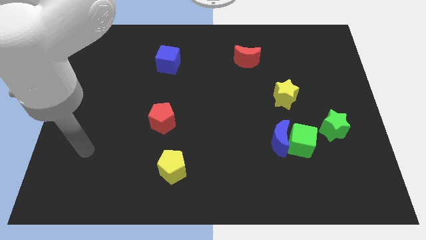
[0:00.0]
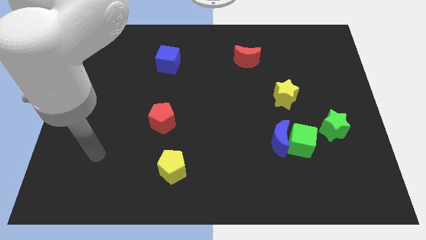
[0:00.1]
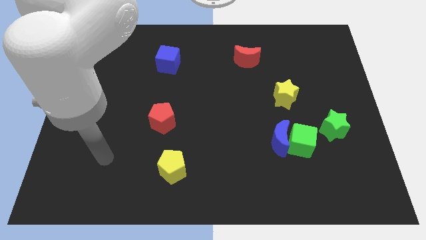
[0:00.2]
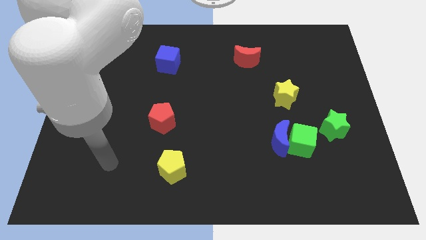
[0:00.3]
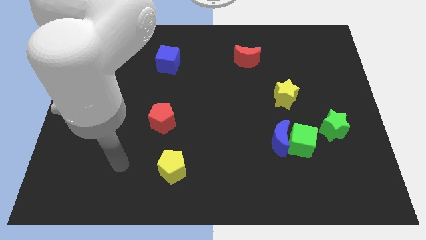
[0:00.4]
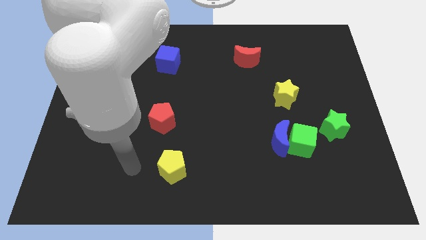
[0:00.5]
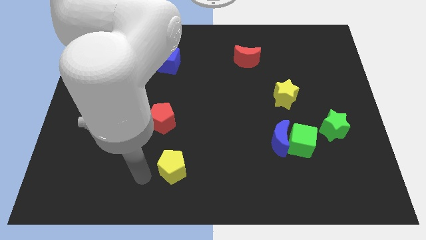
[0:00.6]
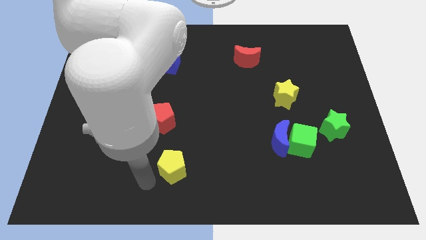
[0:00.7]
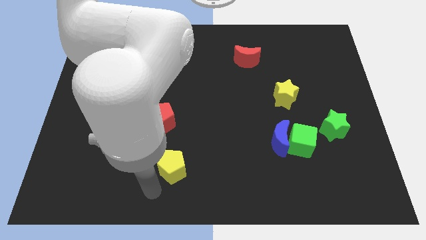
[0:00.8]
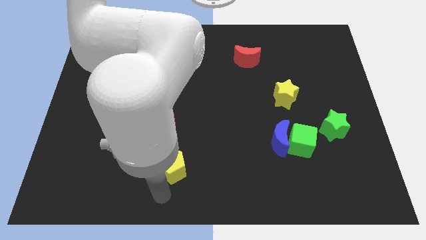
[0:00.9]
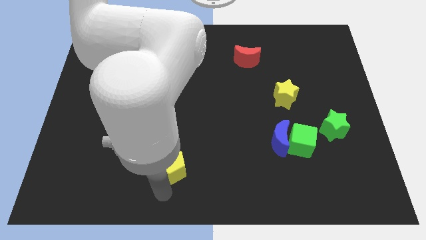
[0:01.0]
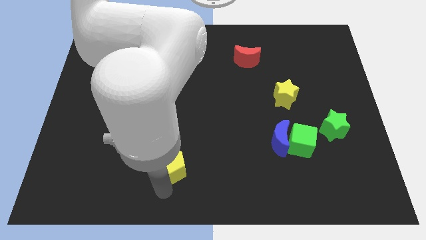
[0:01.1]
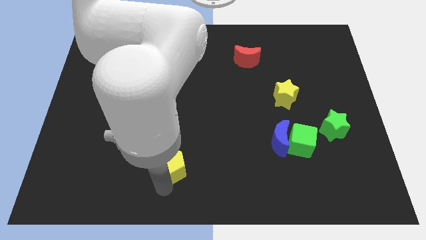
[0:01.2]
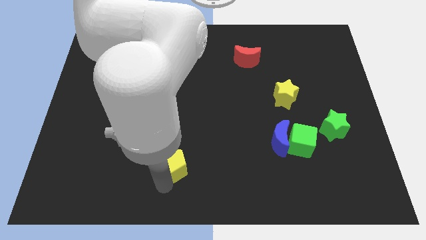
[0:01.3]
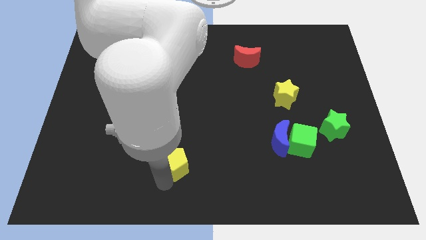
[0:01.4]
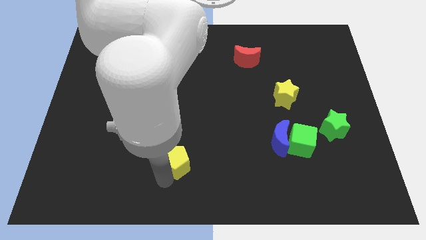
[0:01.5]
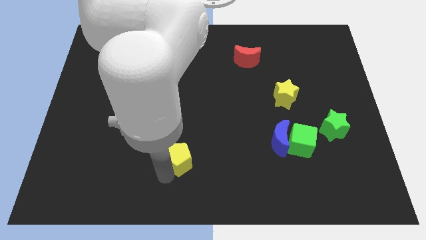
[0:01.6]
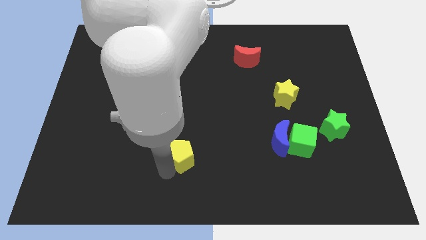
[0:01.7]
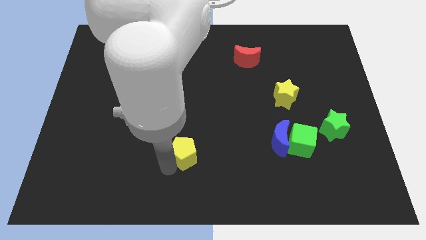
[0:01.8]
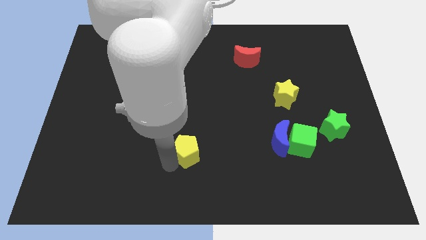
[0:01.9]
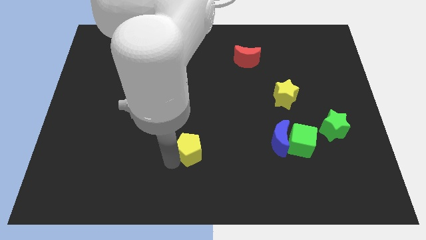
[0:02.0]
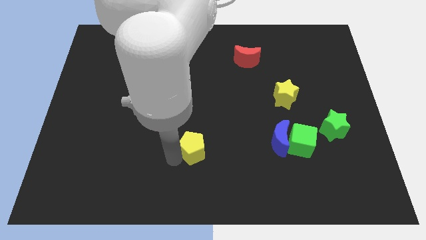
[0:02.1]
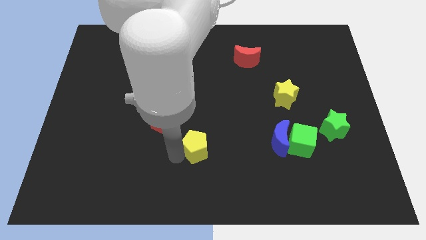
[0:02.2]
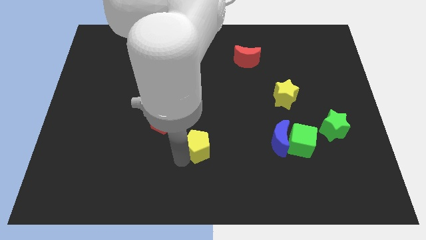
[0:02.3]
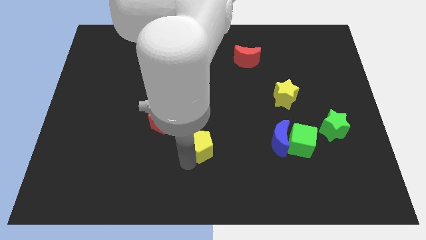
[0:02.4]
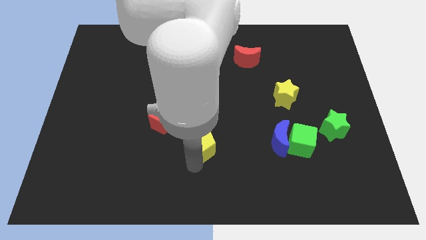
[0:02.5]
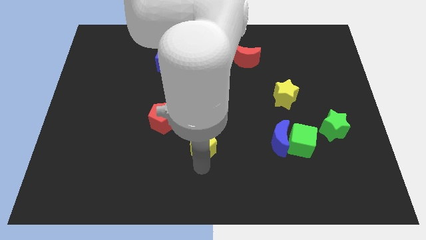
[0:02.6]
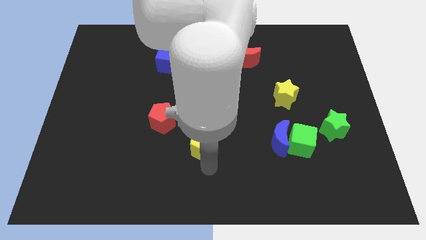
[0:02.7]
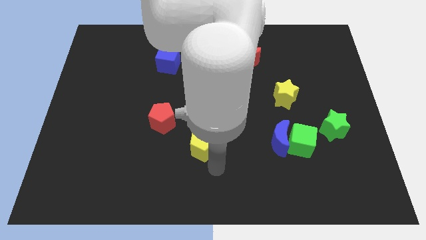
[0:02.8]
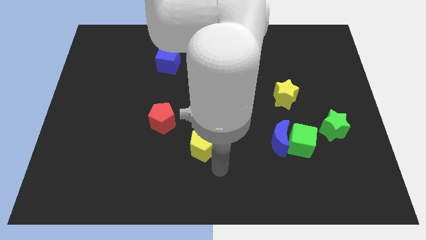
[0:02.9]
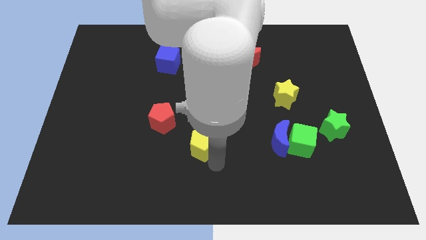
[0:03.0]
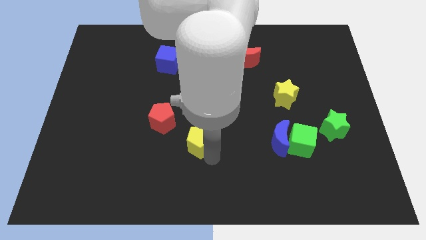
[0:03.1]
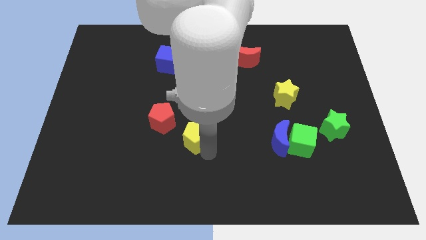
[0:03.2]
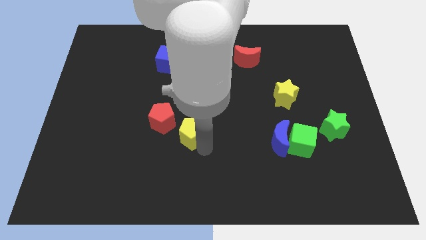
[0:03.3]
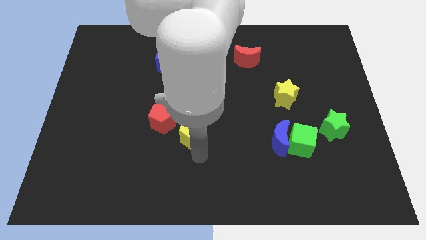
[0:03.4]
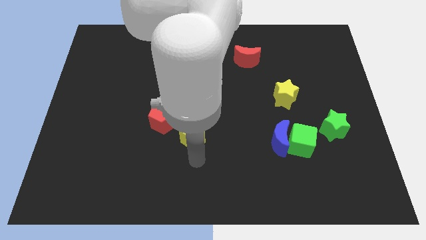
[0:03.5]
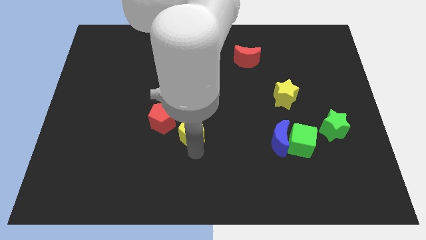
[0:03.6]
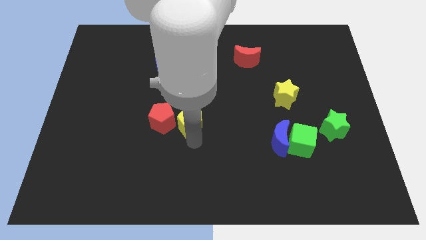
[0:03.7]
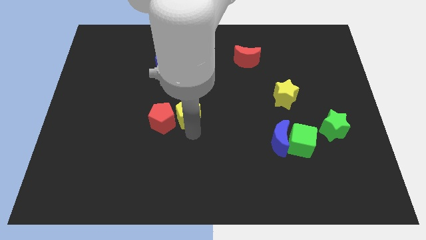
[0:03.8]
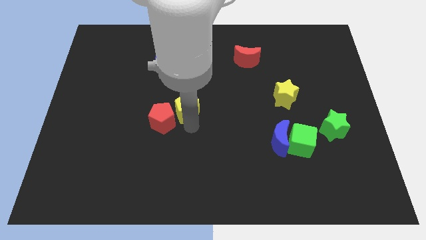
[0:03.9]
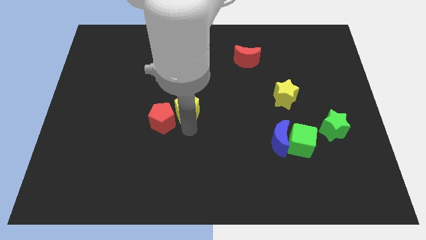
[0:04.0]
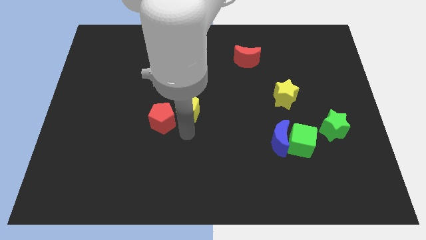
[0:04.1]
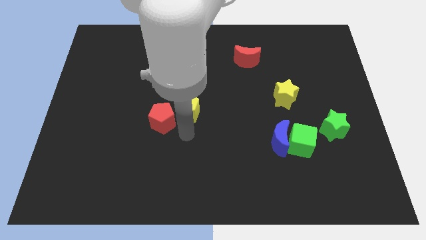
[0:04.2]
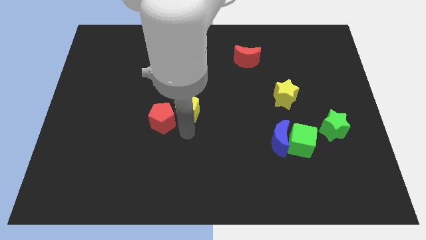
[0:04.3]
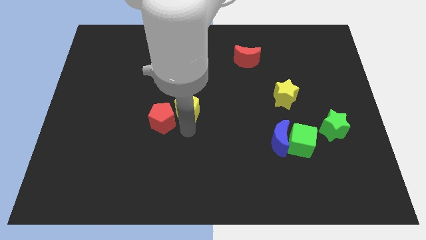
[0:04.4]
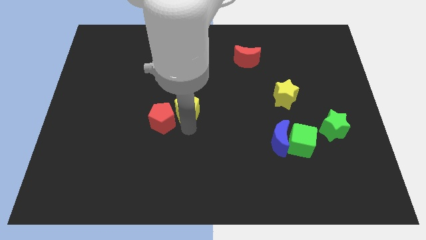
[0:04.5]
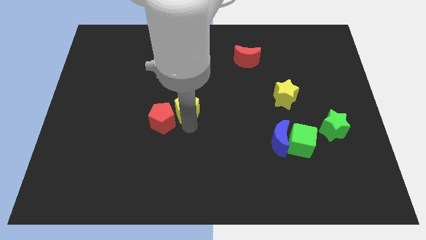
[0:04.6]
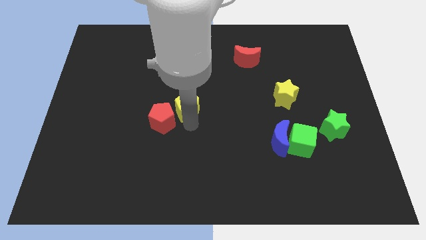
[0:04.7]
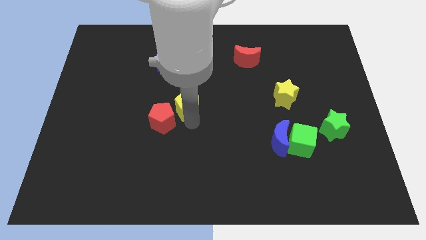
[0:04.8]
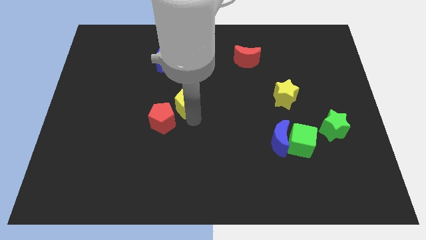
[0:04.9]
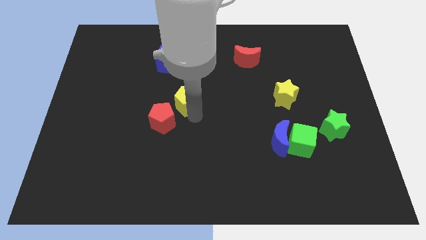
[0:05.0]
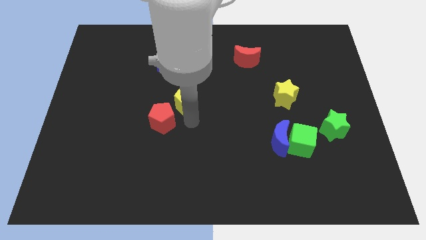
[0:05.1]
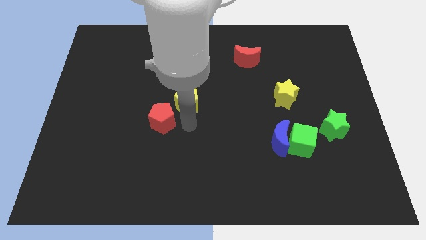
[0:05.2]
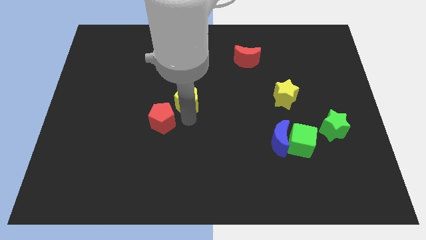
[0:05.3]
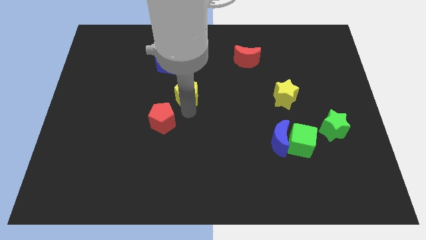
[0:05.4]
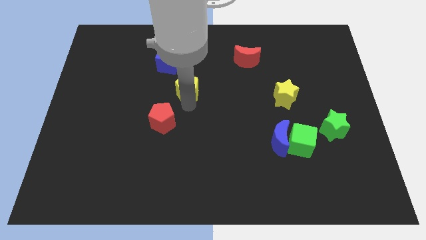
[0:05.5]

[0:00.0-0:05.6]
push the yellow pentagon diagonally down and to the right of the blue cube

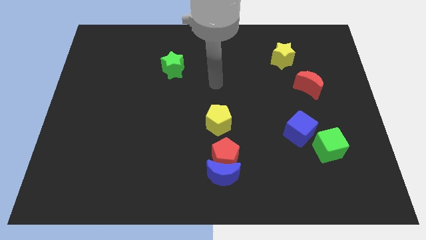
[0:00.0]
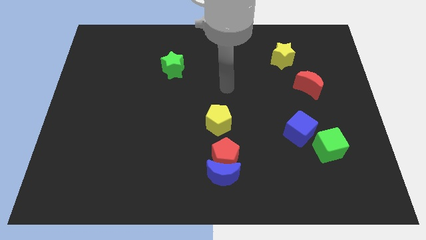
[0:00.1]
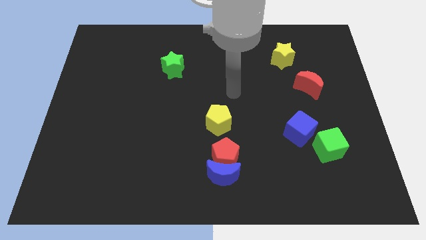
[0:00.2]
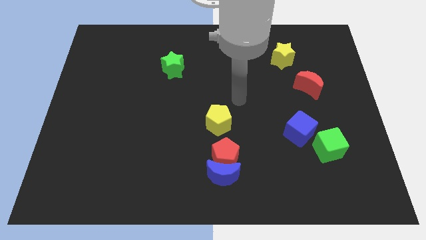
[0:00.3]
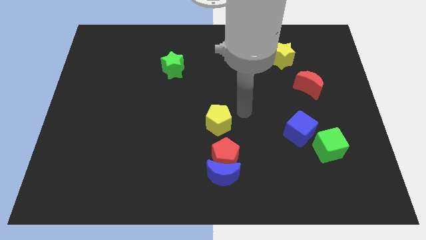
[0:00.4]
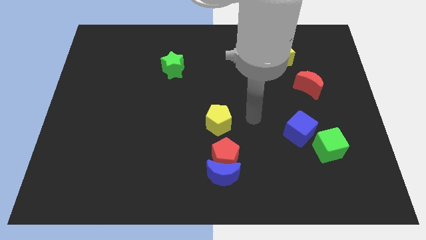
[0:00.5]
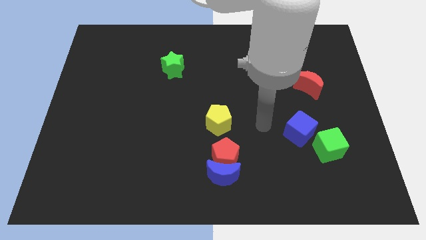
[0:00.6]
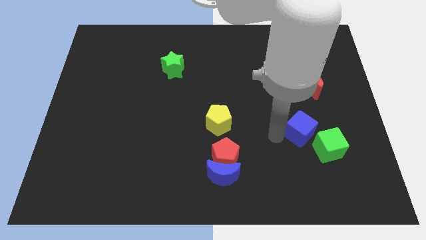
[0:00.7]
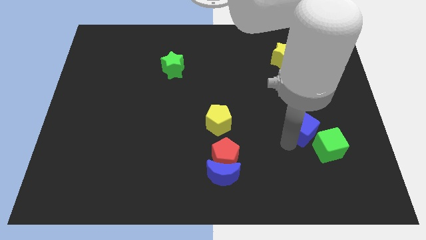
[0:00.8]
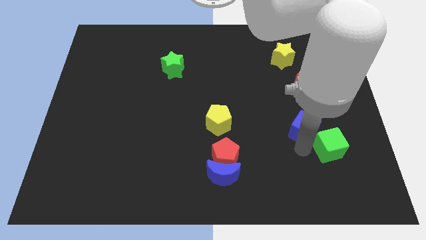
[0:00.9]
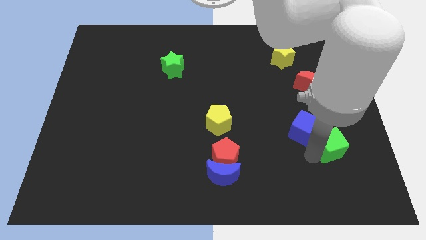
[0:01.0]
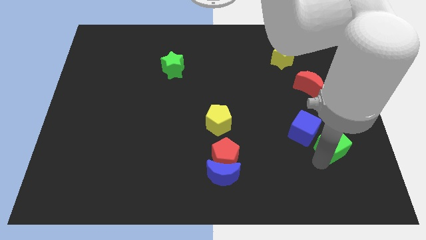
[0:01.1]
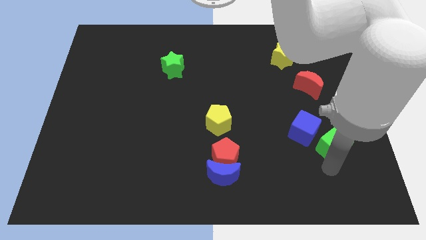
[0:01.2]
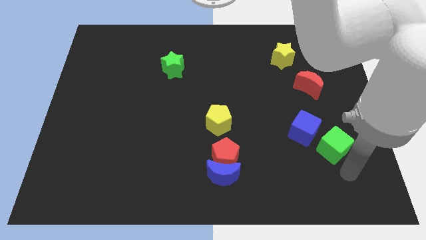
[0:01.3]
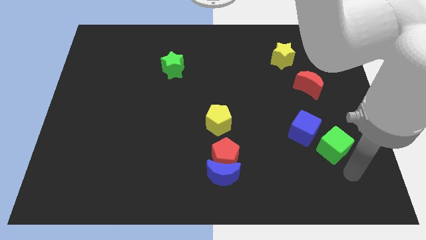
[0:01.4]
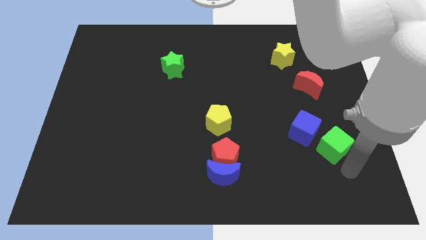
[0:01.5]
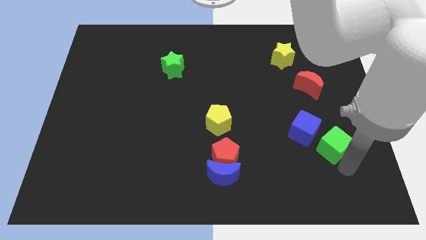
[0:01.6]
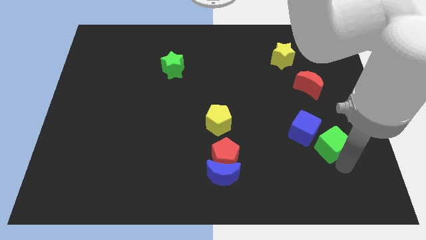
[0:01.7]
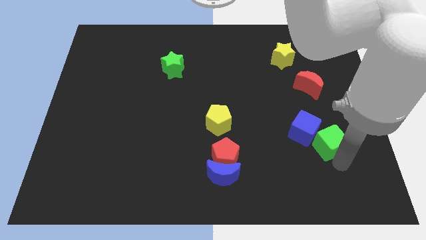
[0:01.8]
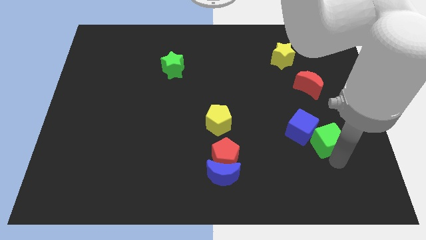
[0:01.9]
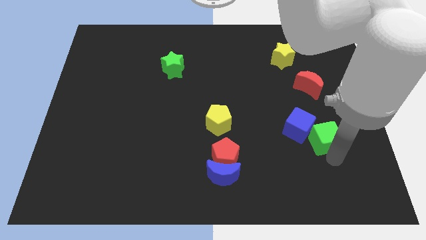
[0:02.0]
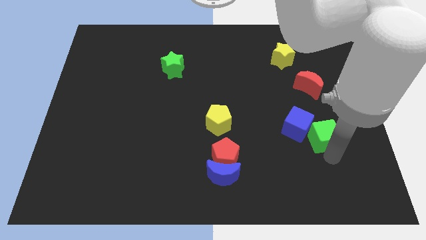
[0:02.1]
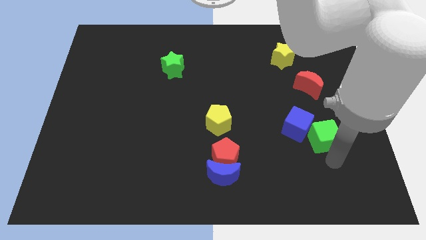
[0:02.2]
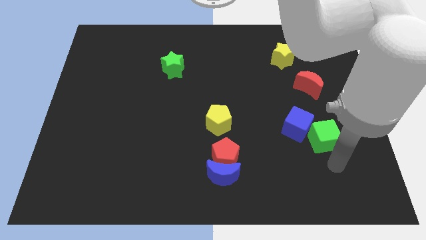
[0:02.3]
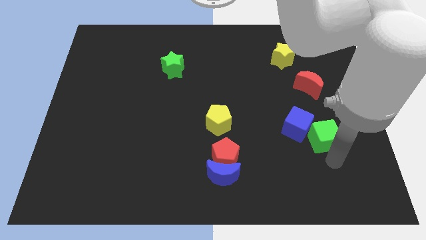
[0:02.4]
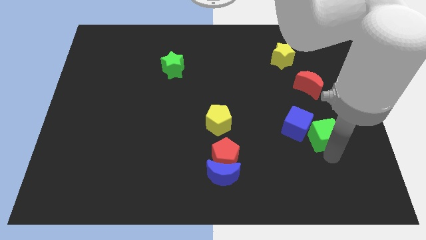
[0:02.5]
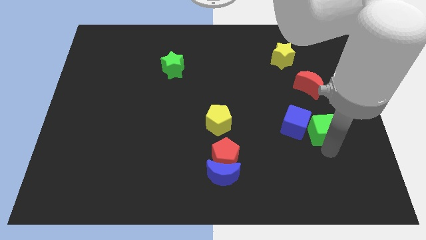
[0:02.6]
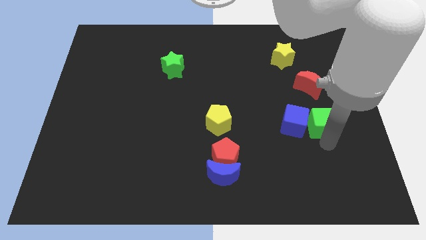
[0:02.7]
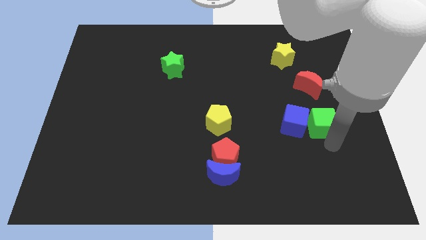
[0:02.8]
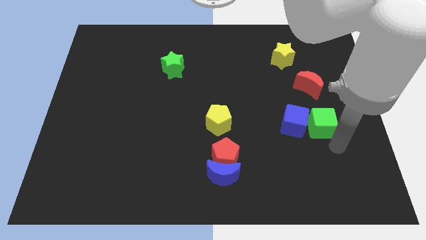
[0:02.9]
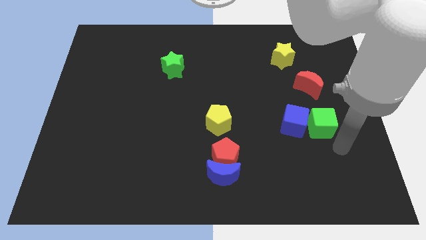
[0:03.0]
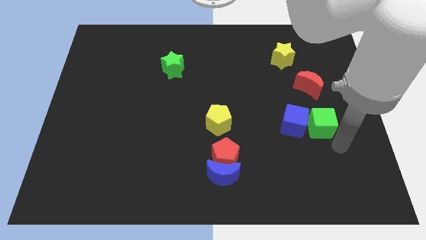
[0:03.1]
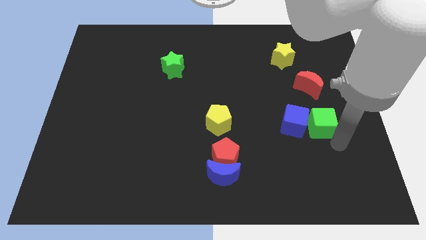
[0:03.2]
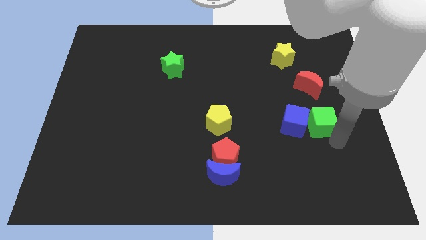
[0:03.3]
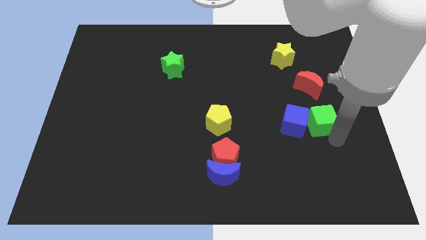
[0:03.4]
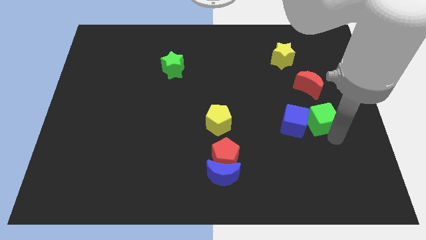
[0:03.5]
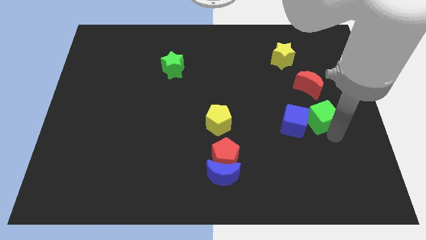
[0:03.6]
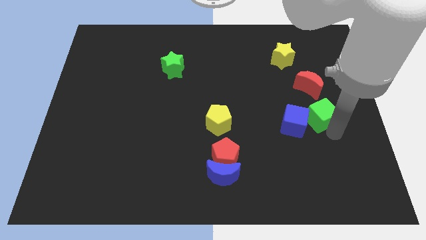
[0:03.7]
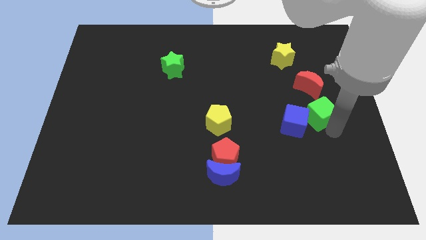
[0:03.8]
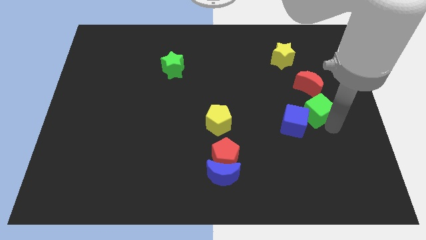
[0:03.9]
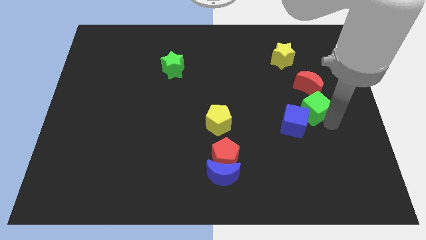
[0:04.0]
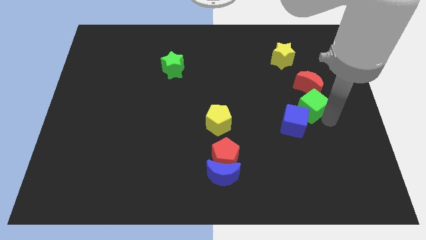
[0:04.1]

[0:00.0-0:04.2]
push the green cube to the top of the blue cube
